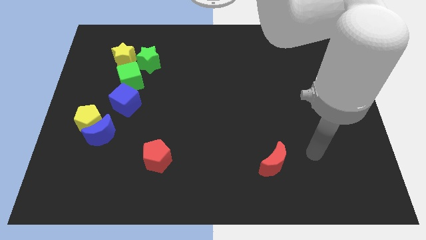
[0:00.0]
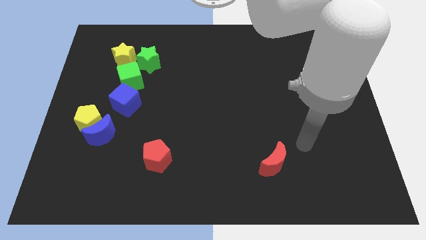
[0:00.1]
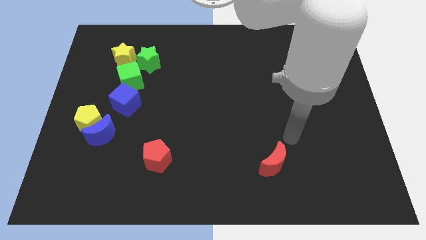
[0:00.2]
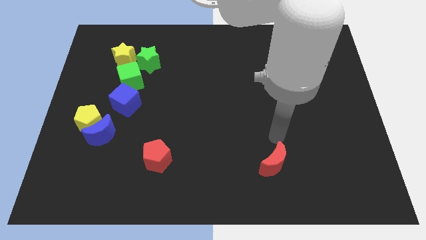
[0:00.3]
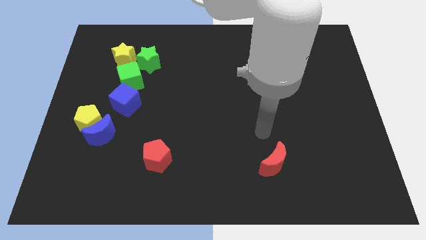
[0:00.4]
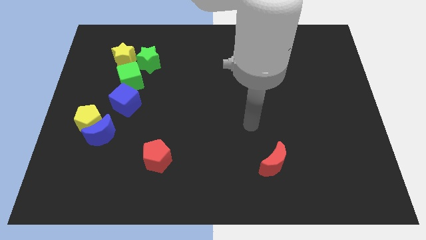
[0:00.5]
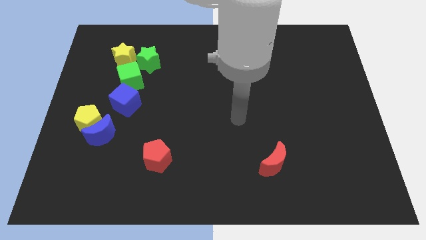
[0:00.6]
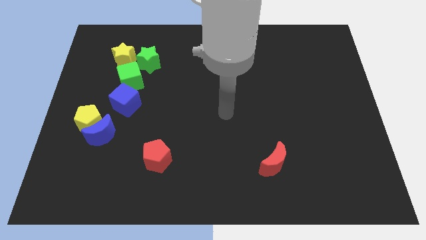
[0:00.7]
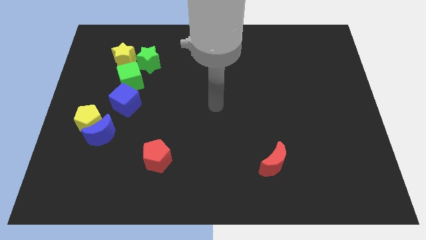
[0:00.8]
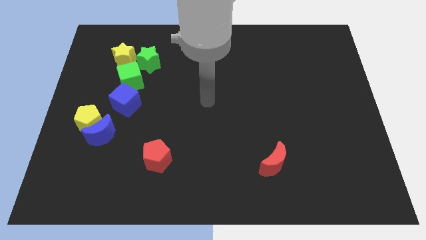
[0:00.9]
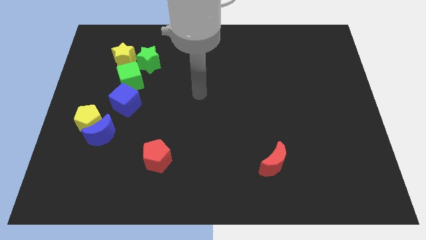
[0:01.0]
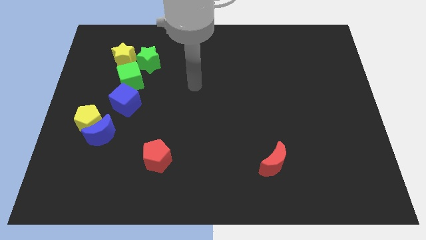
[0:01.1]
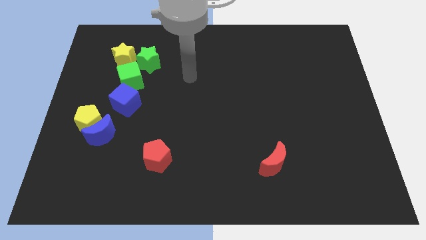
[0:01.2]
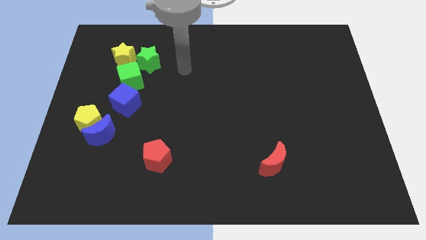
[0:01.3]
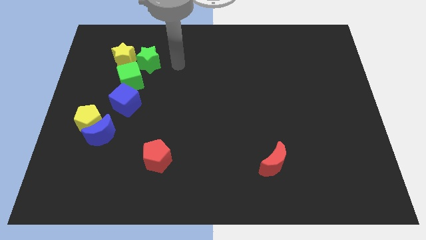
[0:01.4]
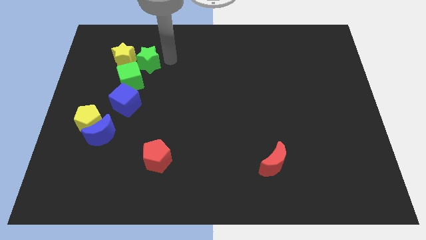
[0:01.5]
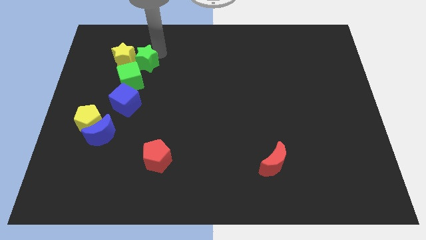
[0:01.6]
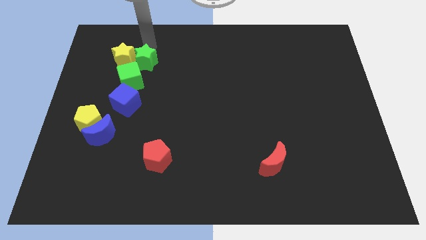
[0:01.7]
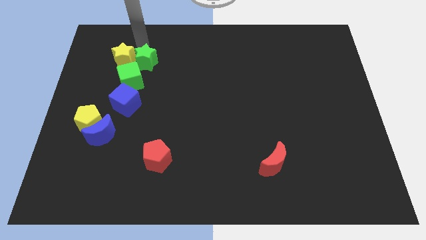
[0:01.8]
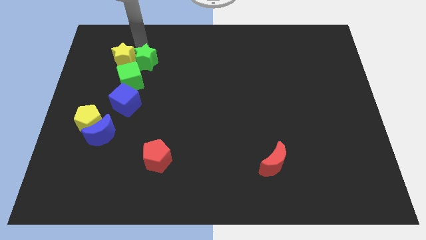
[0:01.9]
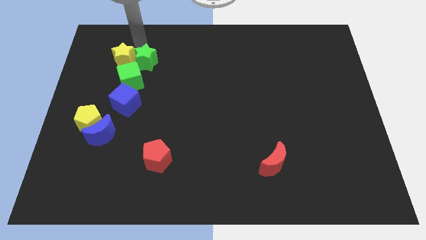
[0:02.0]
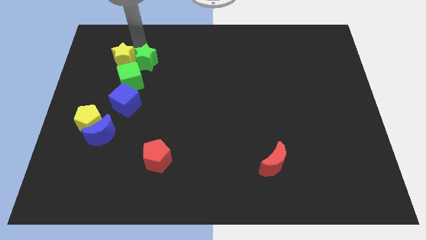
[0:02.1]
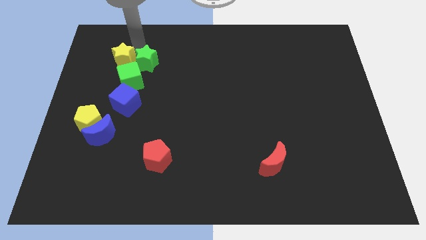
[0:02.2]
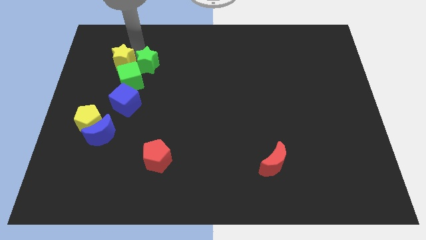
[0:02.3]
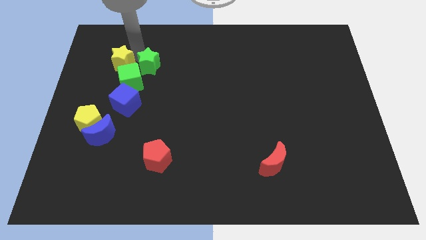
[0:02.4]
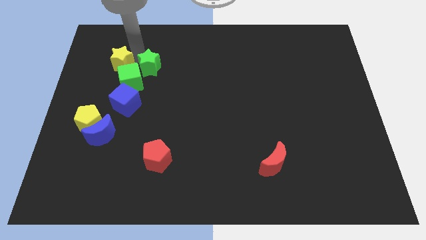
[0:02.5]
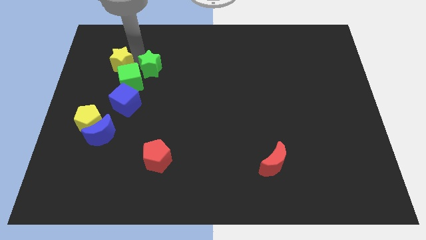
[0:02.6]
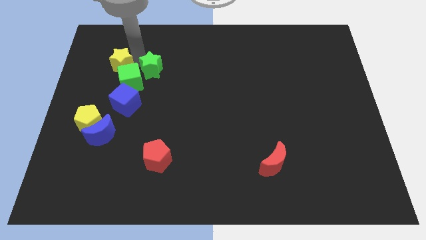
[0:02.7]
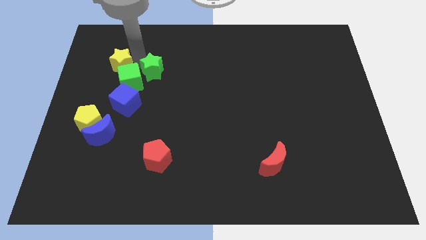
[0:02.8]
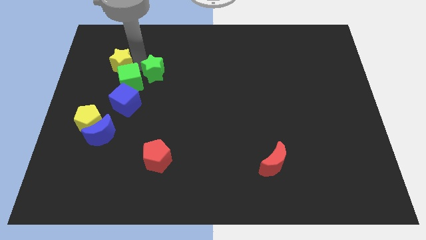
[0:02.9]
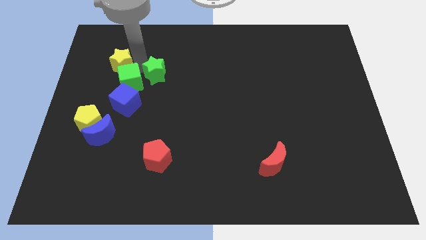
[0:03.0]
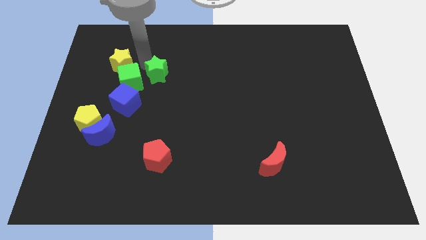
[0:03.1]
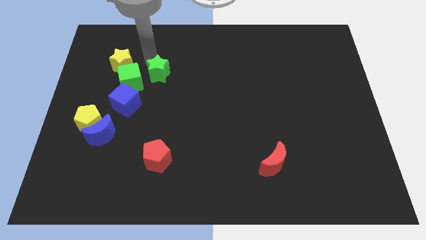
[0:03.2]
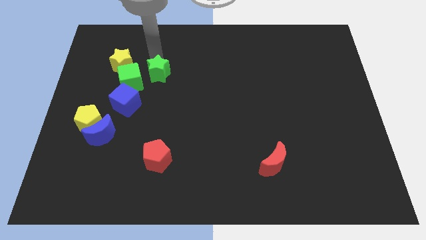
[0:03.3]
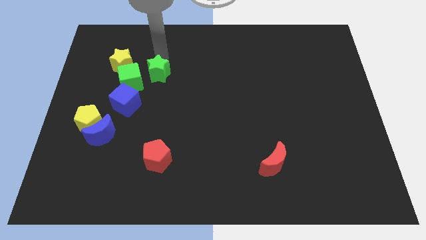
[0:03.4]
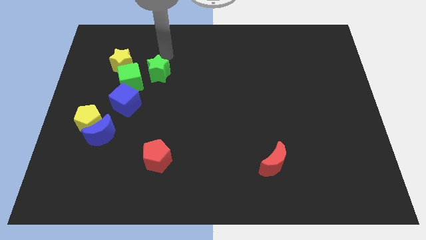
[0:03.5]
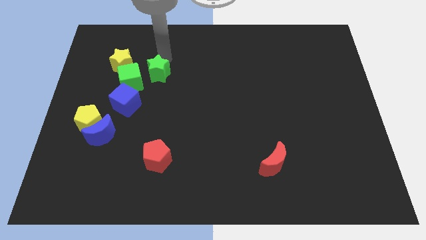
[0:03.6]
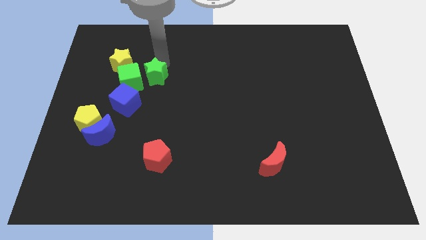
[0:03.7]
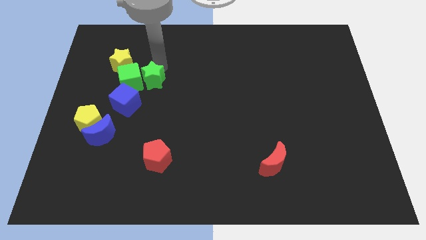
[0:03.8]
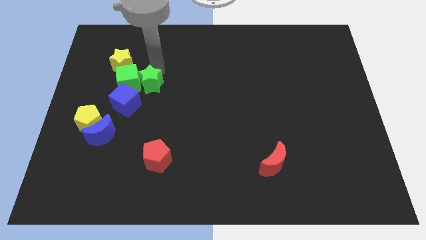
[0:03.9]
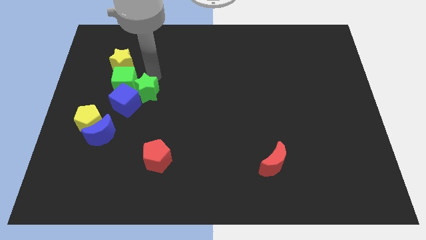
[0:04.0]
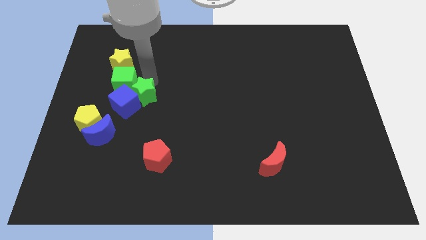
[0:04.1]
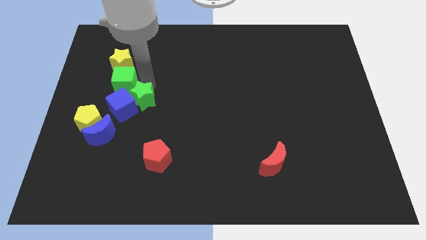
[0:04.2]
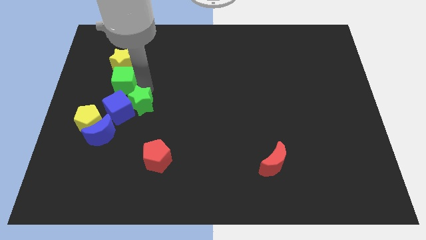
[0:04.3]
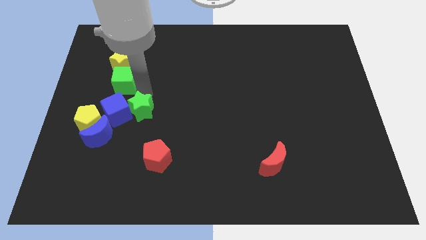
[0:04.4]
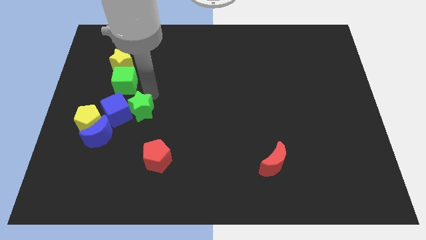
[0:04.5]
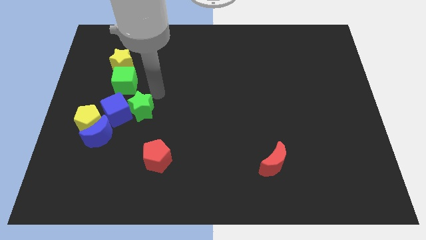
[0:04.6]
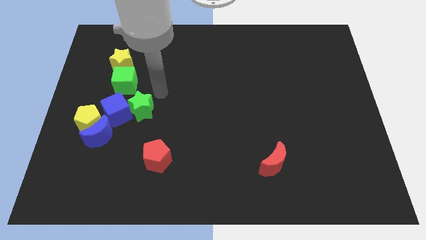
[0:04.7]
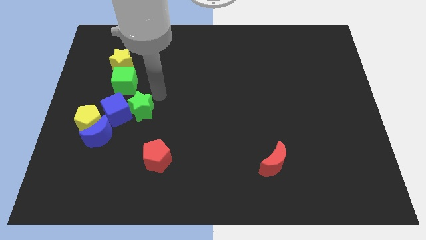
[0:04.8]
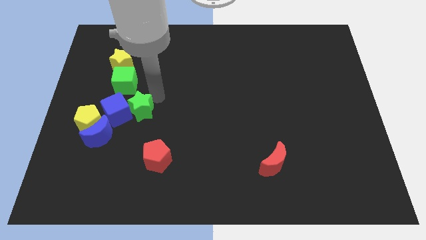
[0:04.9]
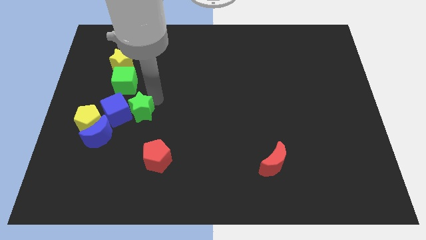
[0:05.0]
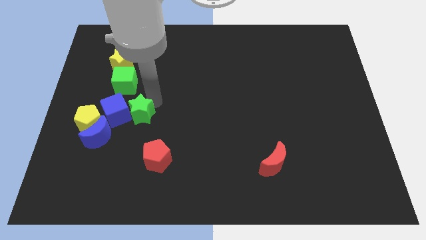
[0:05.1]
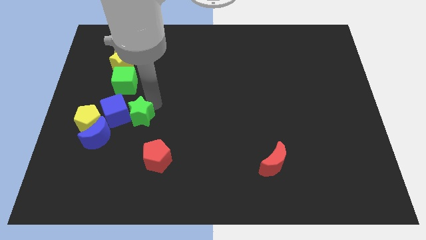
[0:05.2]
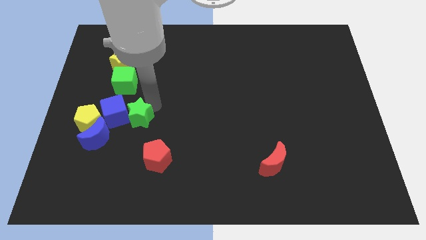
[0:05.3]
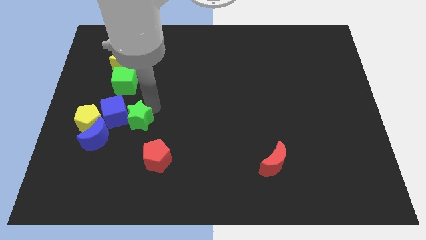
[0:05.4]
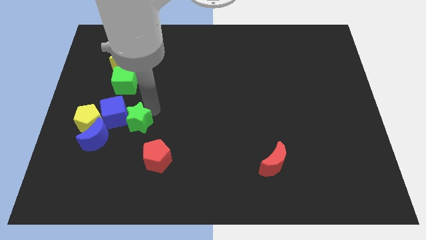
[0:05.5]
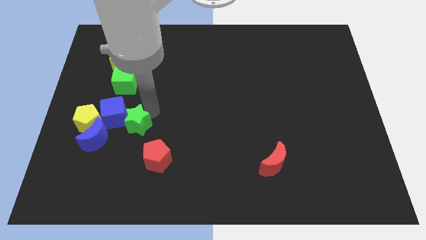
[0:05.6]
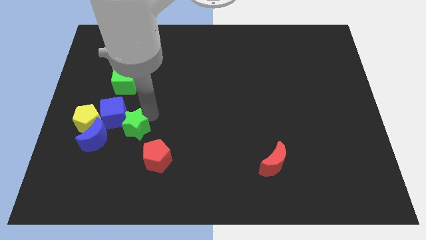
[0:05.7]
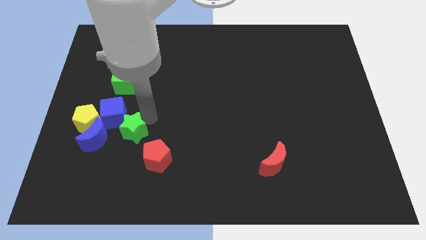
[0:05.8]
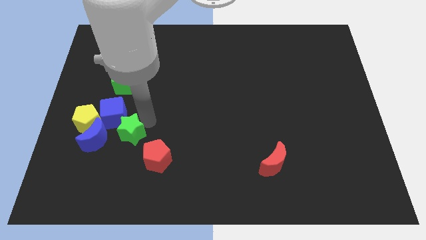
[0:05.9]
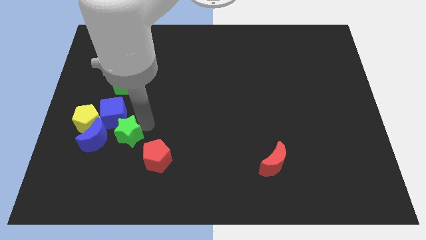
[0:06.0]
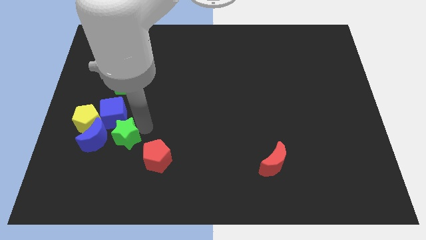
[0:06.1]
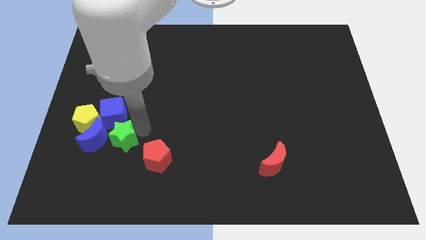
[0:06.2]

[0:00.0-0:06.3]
put the green star close to the blue moon
